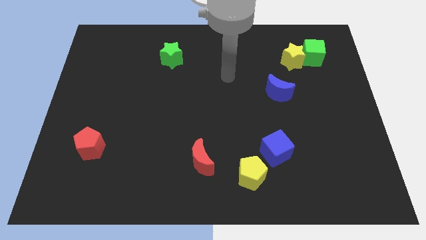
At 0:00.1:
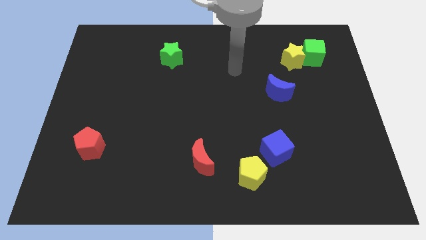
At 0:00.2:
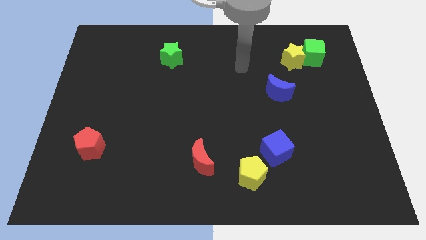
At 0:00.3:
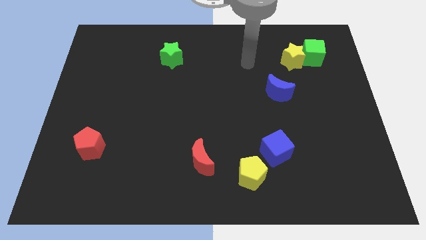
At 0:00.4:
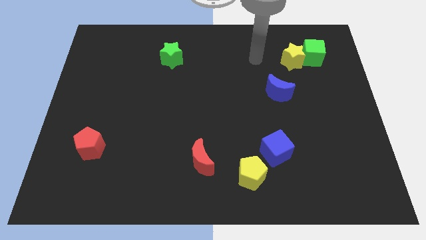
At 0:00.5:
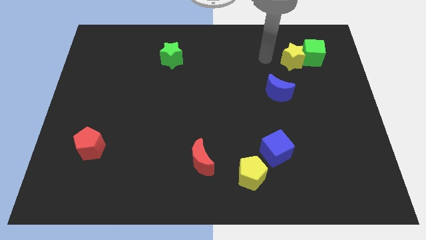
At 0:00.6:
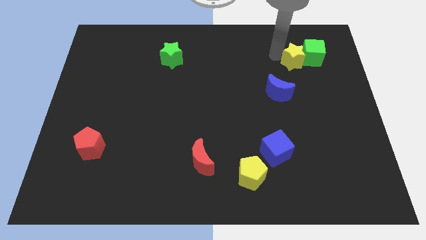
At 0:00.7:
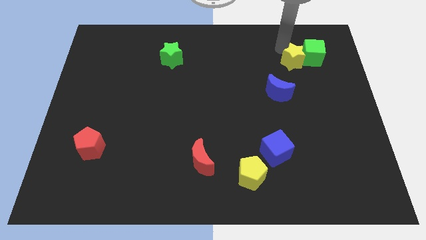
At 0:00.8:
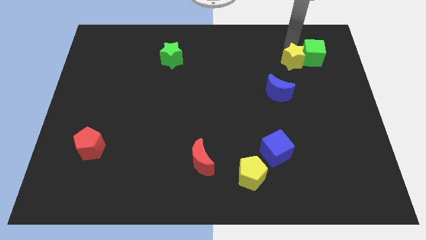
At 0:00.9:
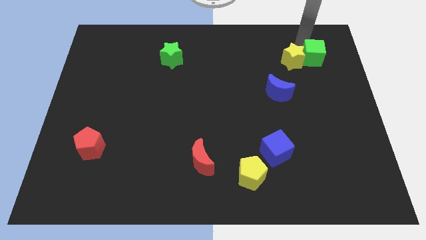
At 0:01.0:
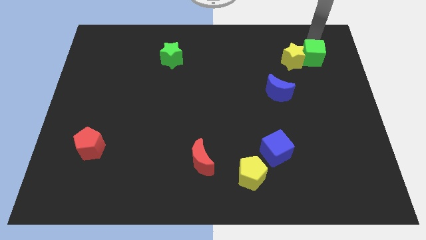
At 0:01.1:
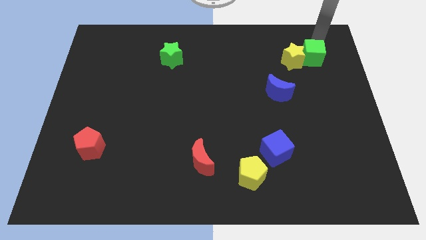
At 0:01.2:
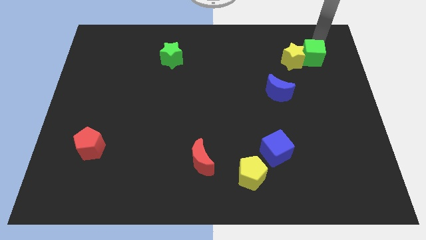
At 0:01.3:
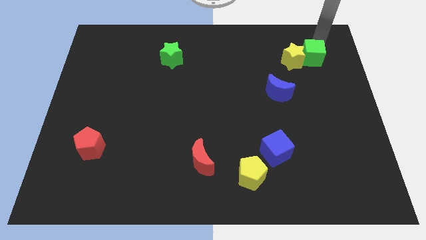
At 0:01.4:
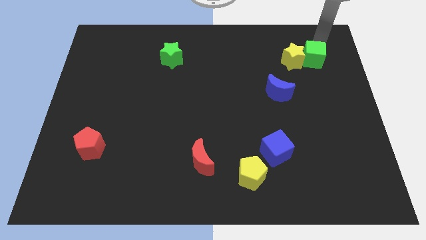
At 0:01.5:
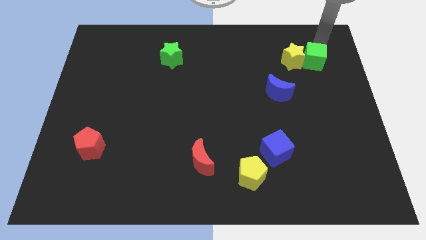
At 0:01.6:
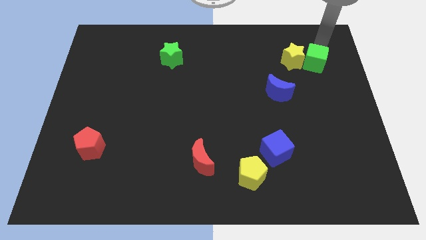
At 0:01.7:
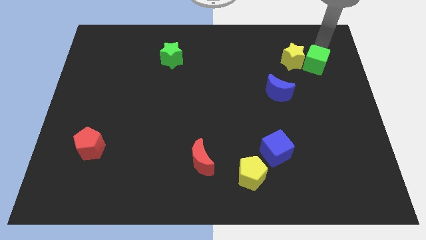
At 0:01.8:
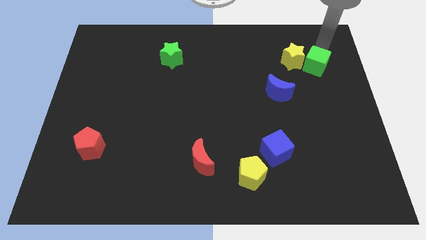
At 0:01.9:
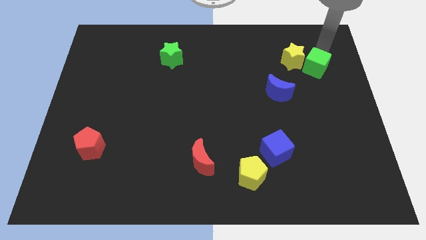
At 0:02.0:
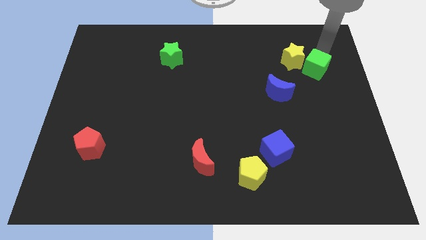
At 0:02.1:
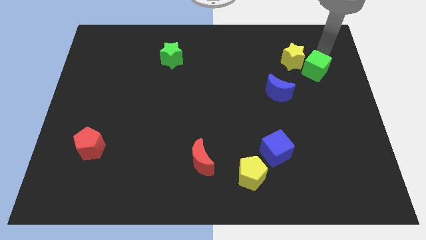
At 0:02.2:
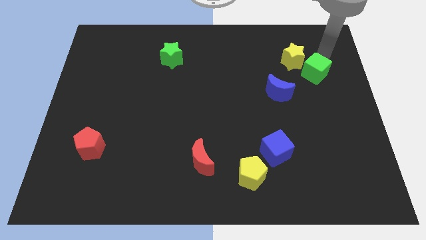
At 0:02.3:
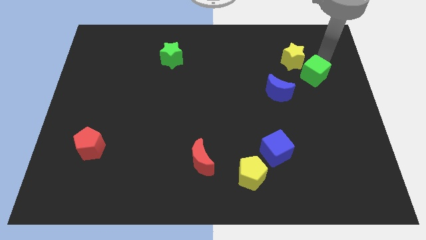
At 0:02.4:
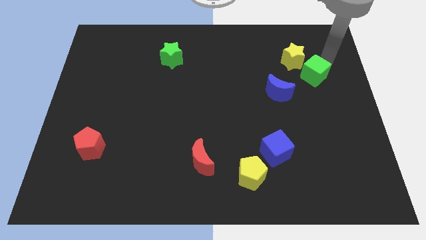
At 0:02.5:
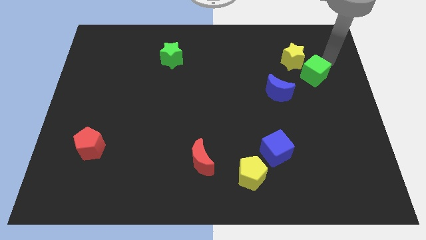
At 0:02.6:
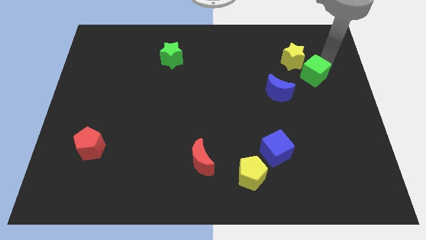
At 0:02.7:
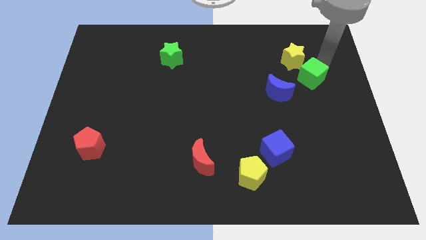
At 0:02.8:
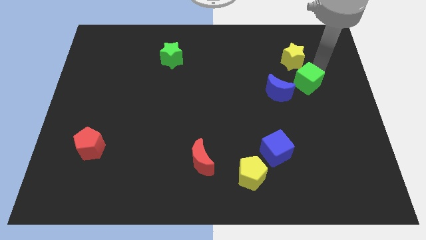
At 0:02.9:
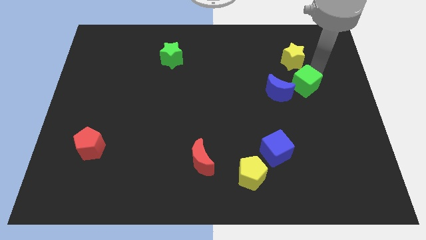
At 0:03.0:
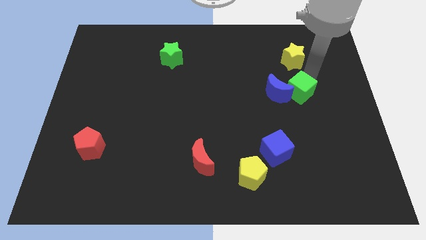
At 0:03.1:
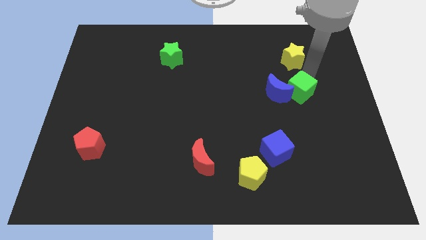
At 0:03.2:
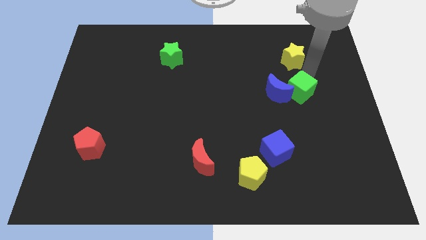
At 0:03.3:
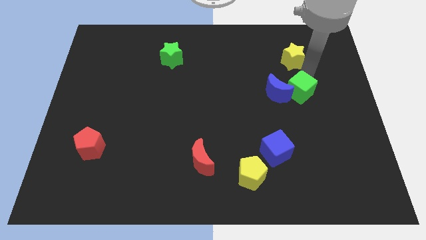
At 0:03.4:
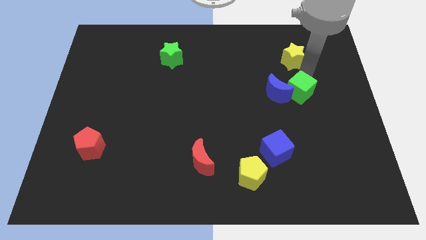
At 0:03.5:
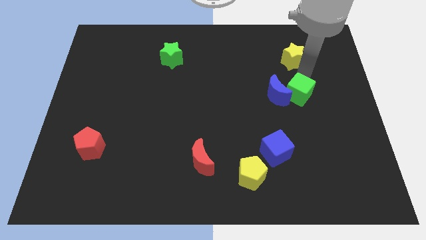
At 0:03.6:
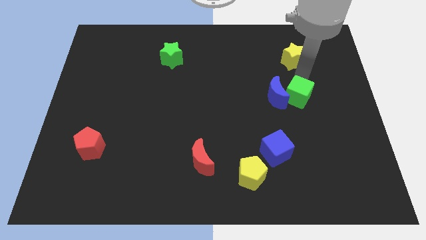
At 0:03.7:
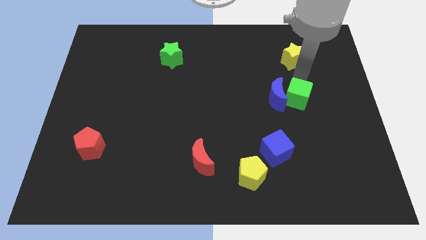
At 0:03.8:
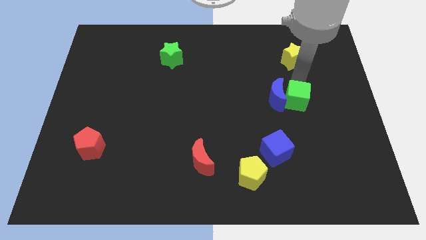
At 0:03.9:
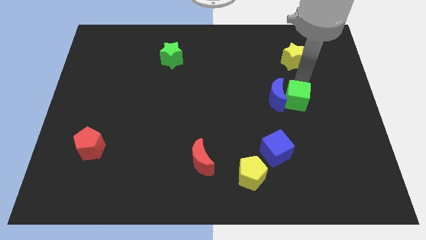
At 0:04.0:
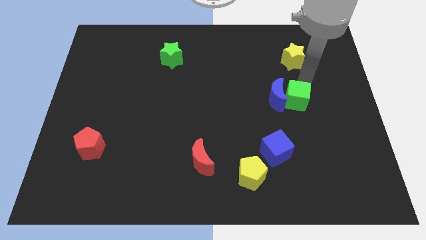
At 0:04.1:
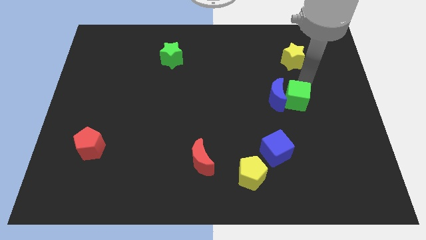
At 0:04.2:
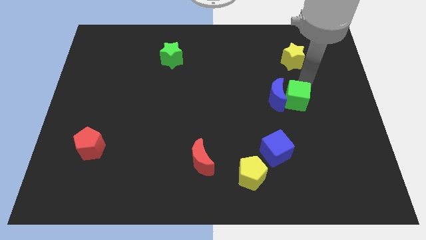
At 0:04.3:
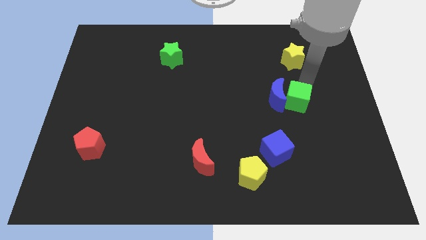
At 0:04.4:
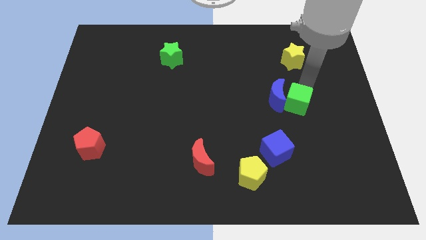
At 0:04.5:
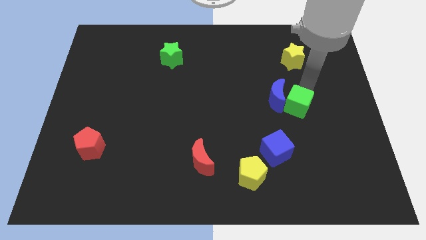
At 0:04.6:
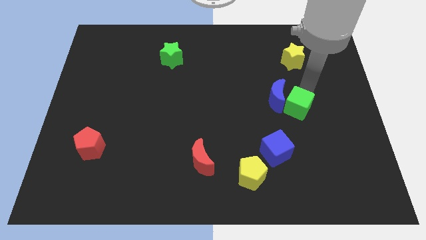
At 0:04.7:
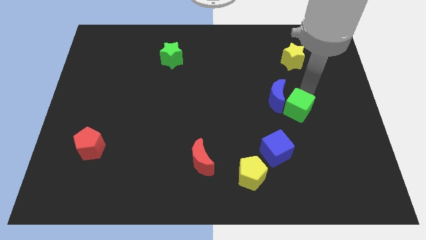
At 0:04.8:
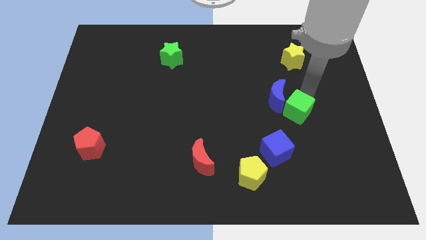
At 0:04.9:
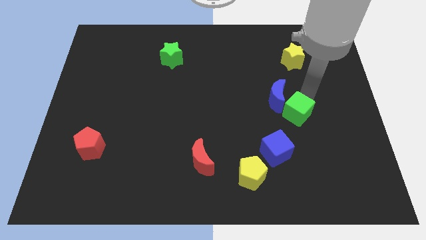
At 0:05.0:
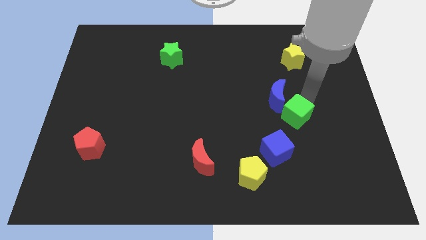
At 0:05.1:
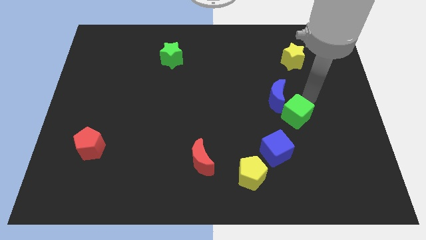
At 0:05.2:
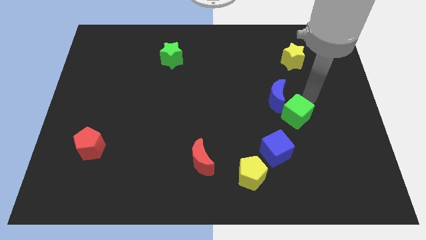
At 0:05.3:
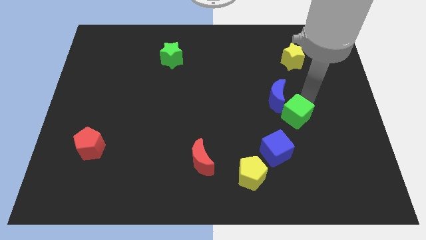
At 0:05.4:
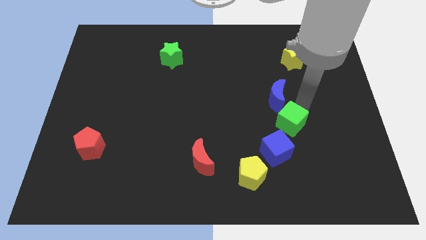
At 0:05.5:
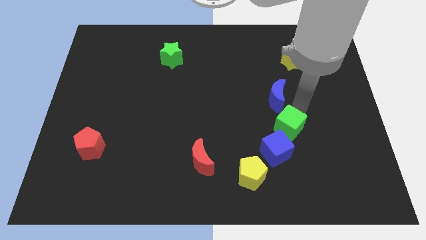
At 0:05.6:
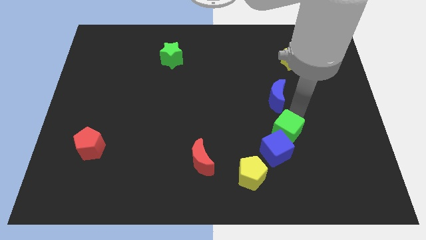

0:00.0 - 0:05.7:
push the green cube close to the blue cube

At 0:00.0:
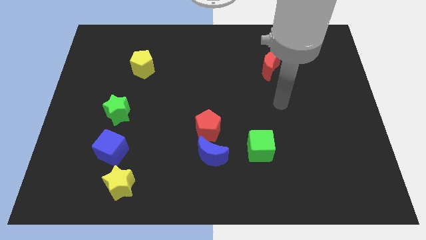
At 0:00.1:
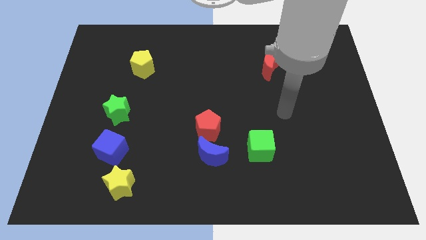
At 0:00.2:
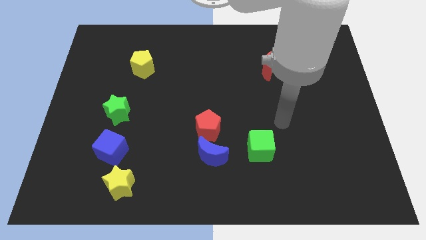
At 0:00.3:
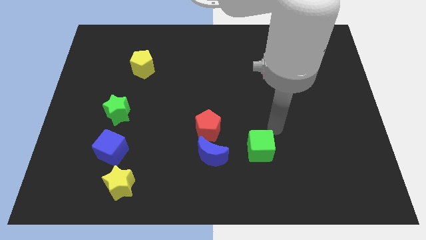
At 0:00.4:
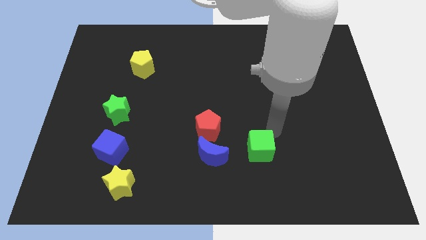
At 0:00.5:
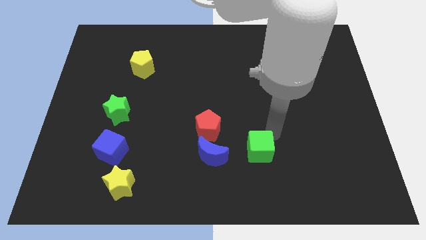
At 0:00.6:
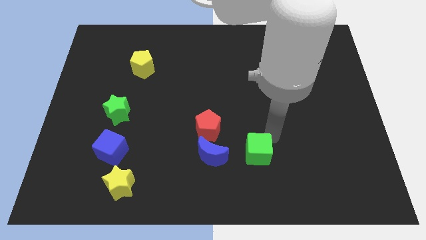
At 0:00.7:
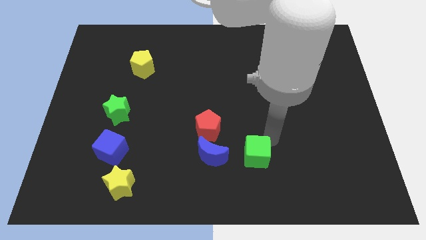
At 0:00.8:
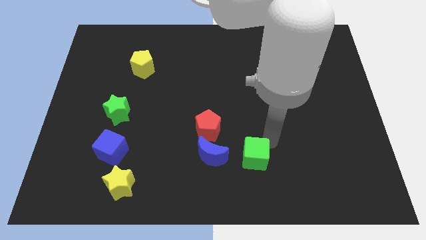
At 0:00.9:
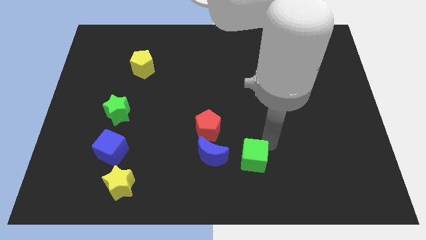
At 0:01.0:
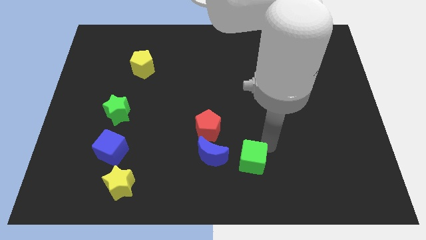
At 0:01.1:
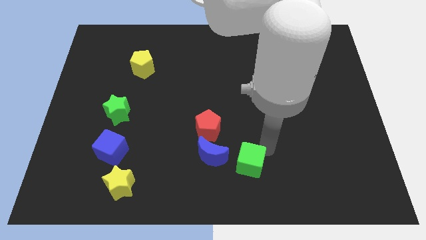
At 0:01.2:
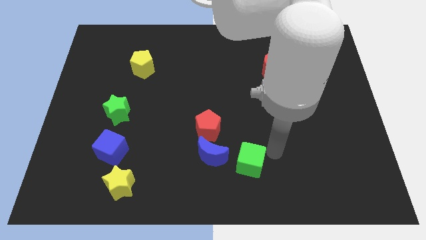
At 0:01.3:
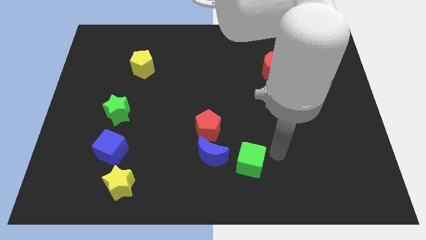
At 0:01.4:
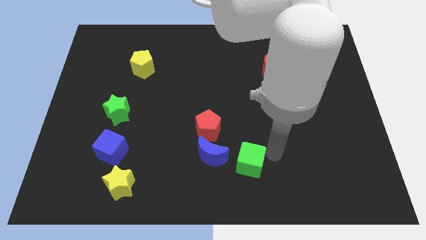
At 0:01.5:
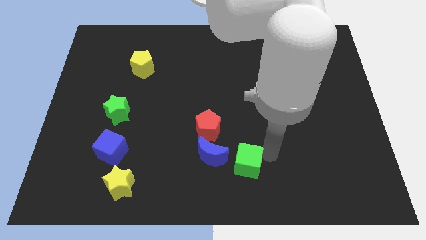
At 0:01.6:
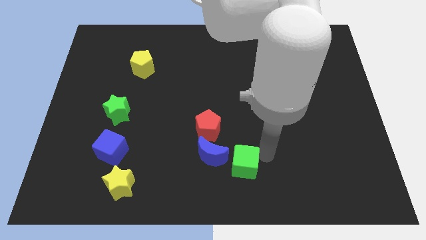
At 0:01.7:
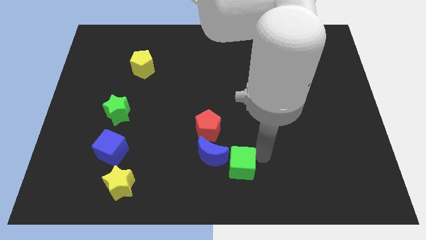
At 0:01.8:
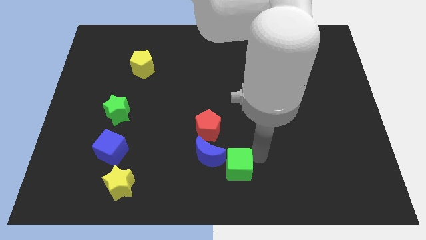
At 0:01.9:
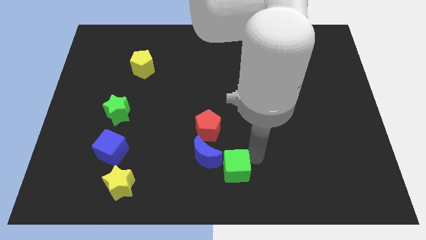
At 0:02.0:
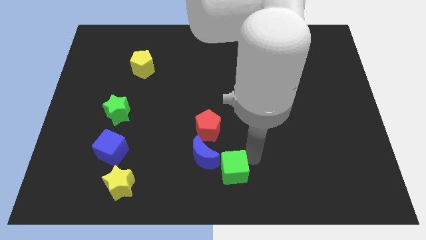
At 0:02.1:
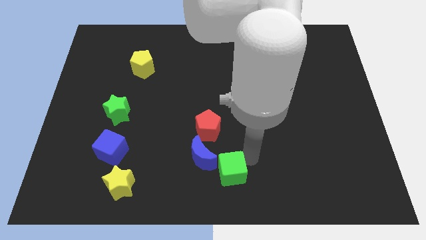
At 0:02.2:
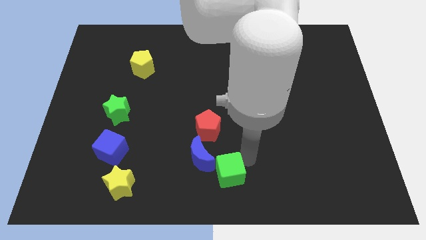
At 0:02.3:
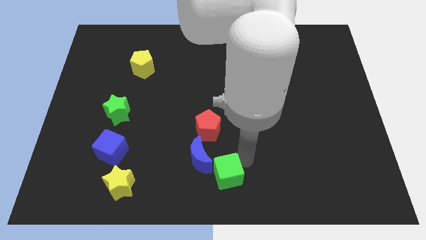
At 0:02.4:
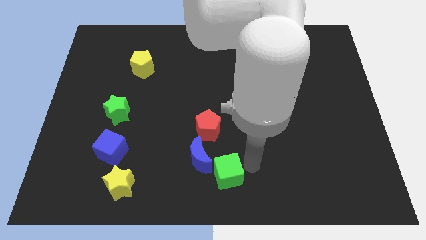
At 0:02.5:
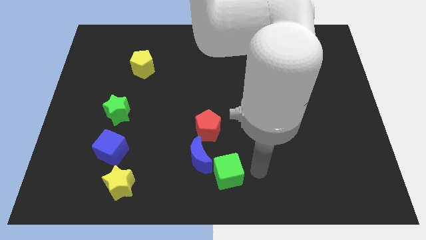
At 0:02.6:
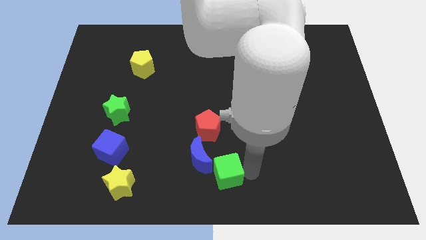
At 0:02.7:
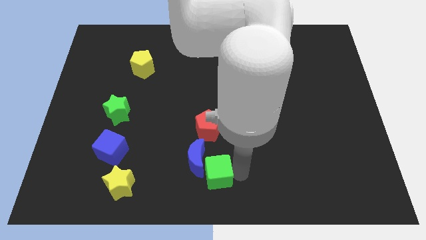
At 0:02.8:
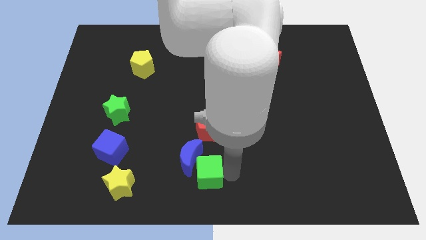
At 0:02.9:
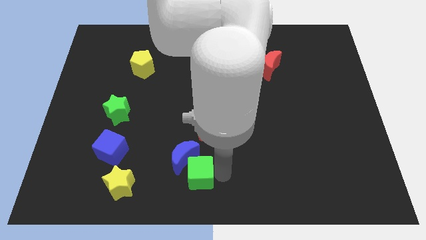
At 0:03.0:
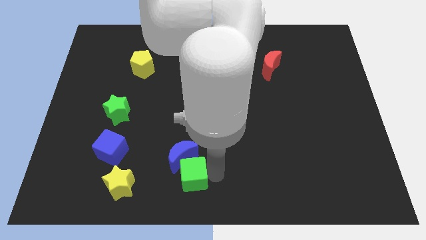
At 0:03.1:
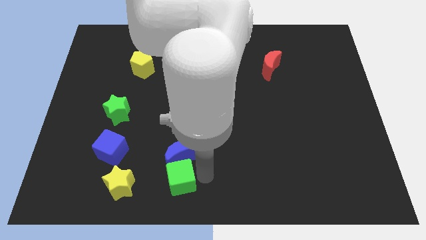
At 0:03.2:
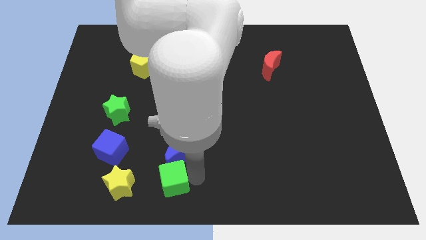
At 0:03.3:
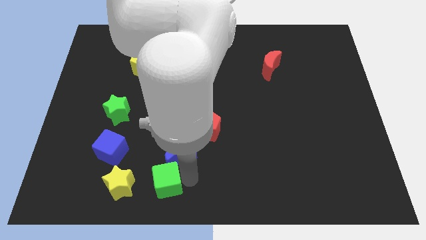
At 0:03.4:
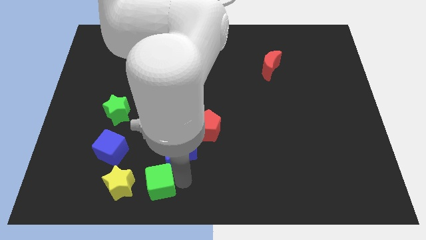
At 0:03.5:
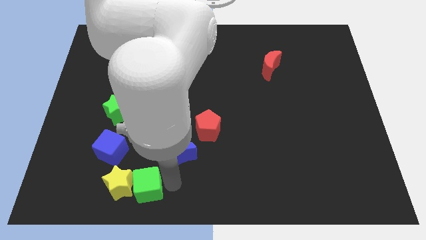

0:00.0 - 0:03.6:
slide the green cube next to the yellow star
